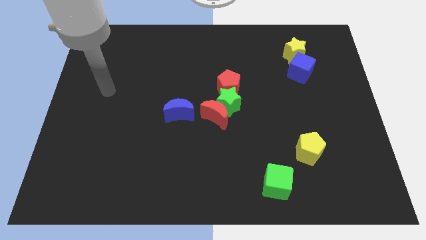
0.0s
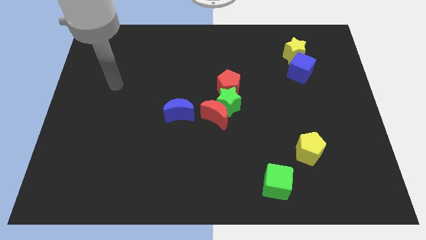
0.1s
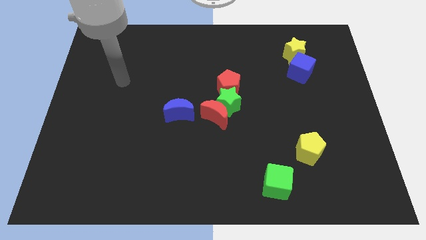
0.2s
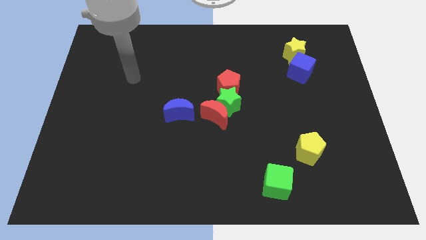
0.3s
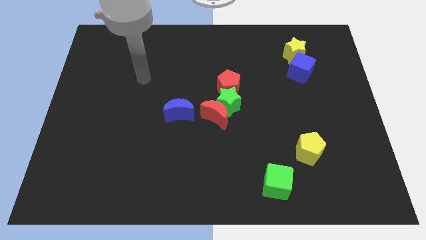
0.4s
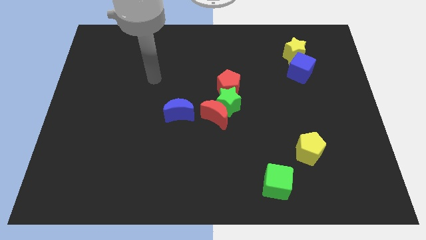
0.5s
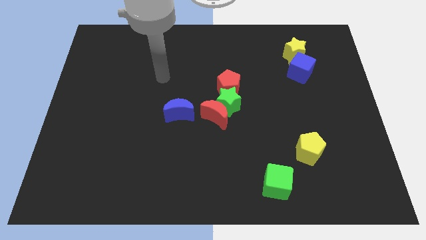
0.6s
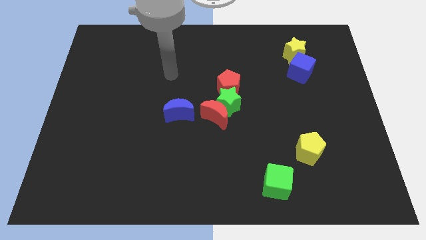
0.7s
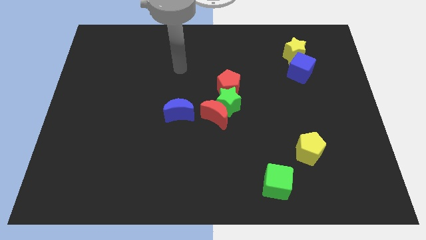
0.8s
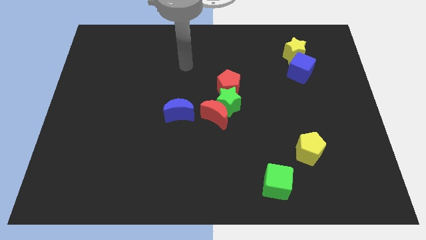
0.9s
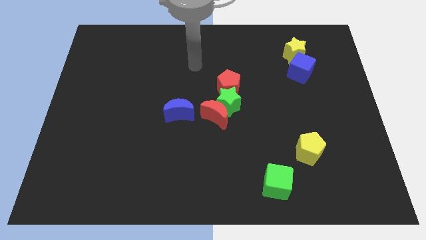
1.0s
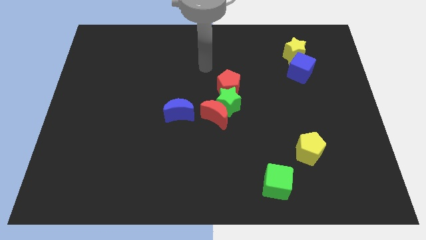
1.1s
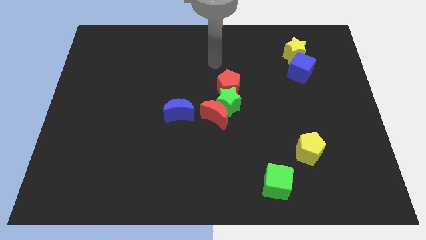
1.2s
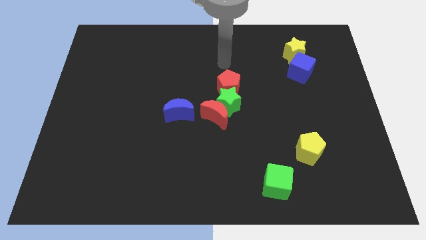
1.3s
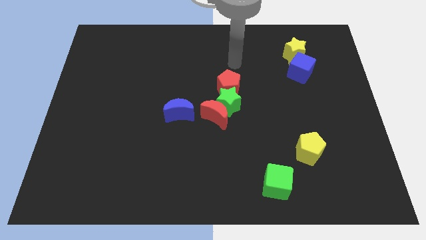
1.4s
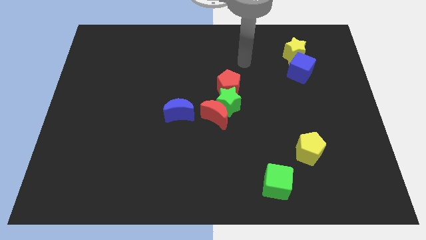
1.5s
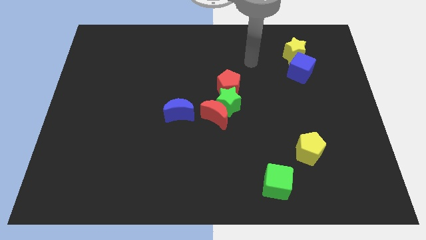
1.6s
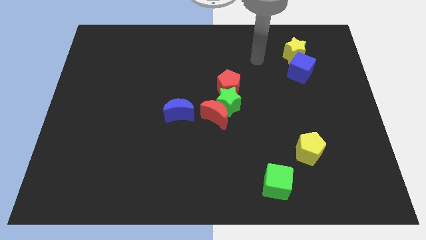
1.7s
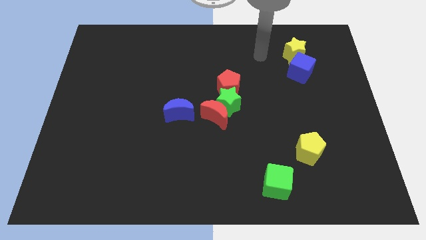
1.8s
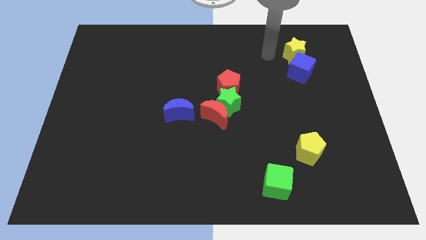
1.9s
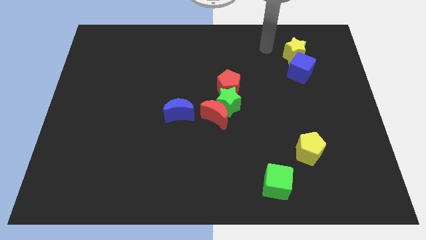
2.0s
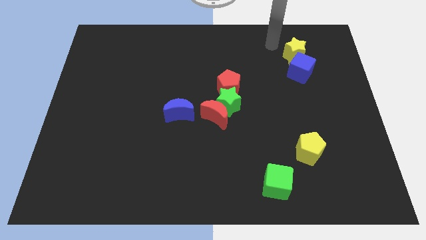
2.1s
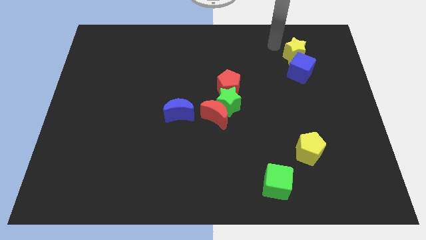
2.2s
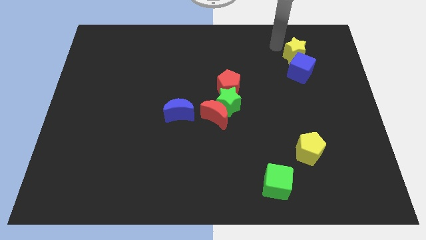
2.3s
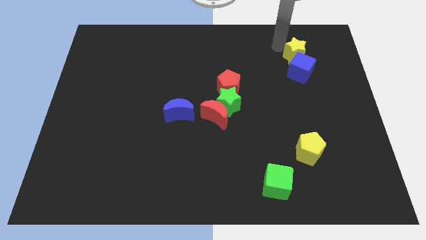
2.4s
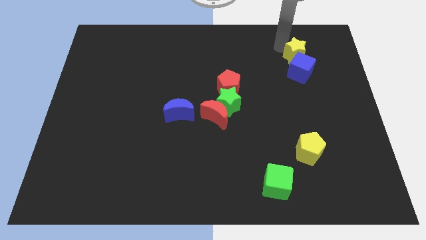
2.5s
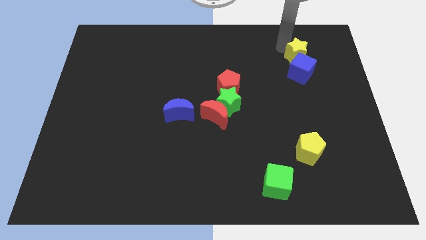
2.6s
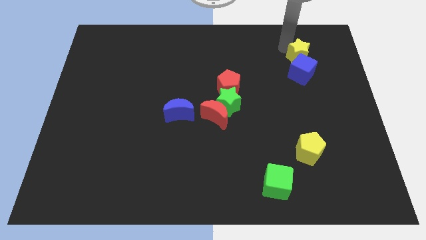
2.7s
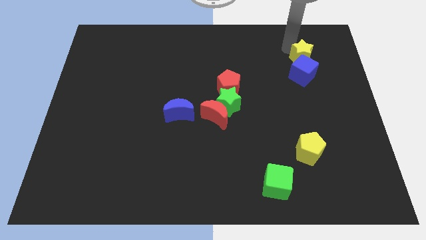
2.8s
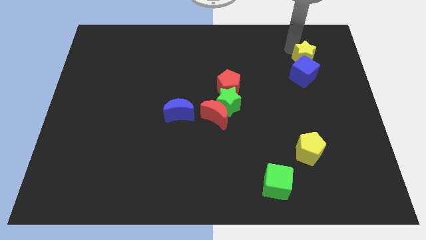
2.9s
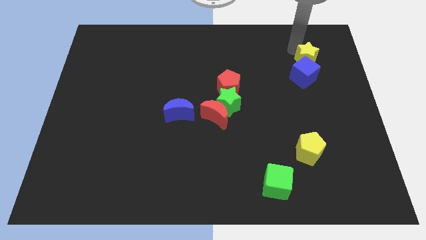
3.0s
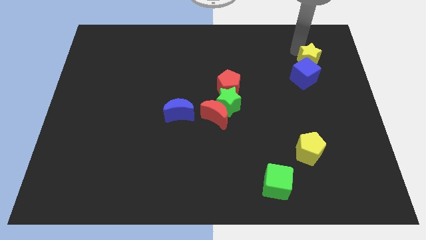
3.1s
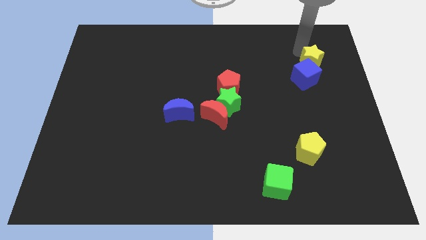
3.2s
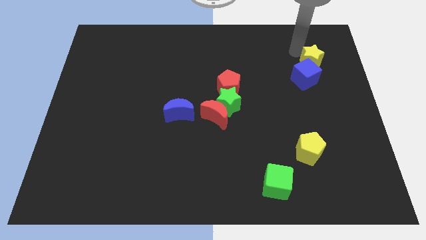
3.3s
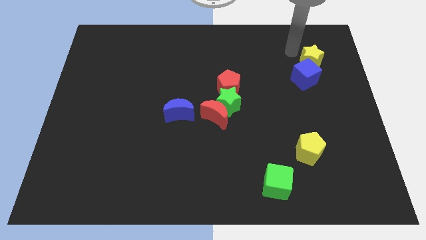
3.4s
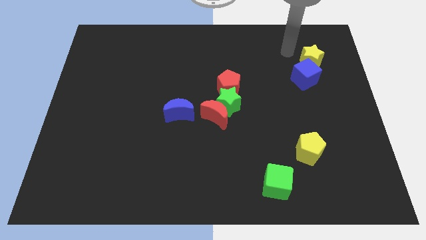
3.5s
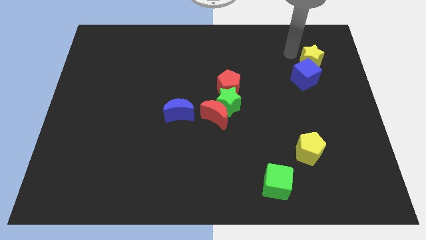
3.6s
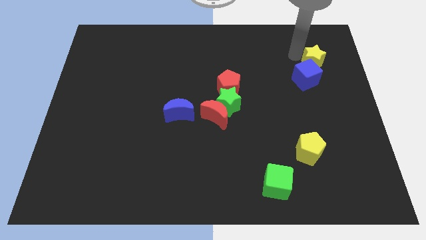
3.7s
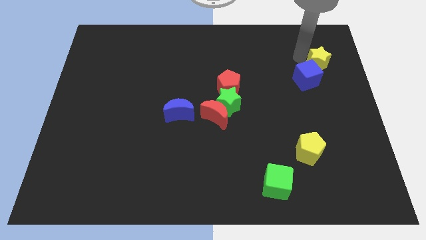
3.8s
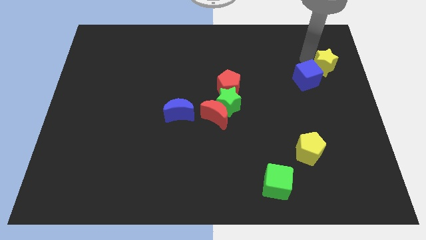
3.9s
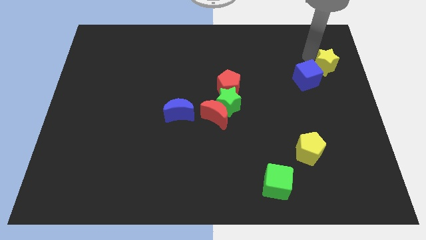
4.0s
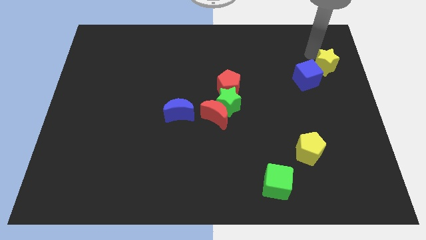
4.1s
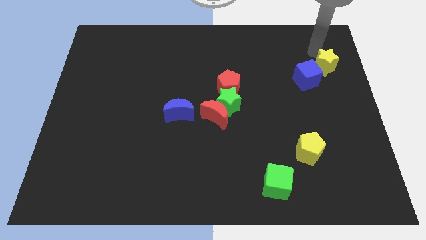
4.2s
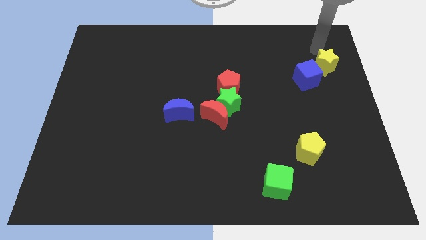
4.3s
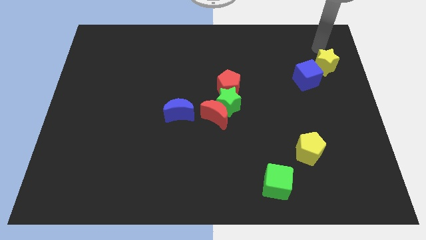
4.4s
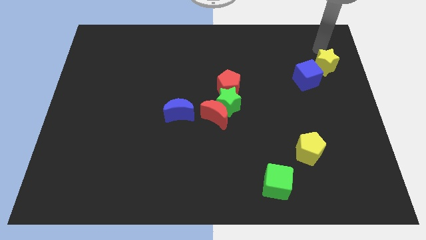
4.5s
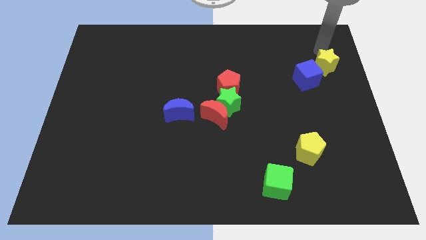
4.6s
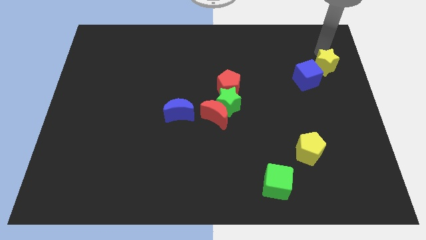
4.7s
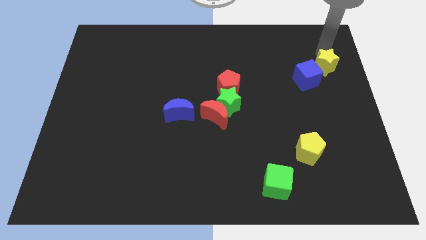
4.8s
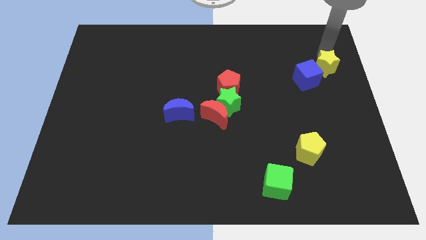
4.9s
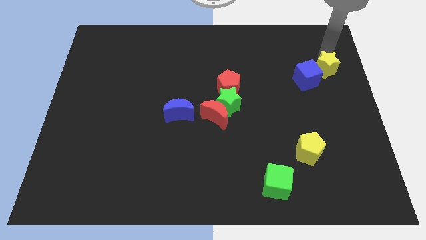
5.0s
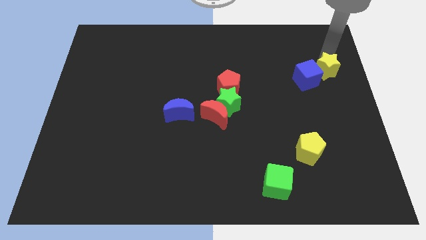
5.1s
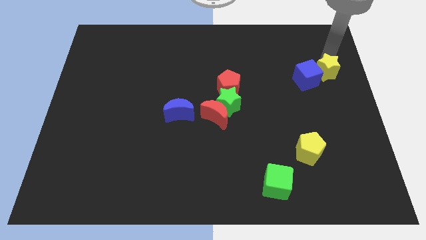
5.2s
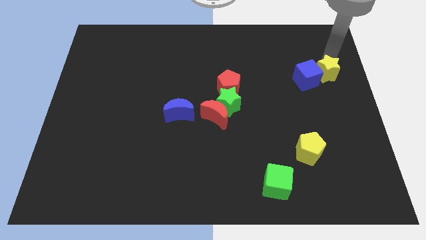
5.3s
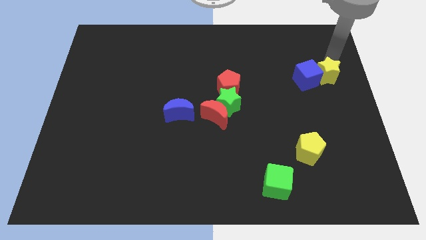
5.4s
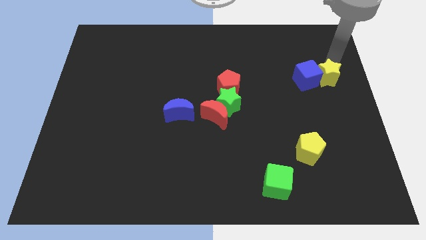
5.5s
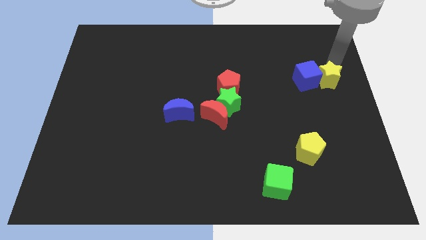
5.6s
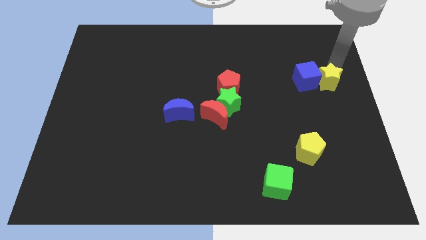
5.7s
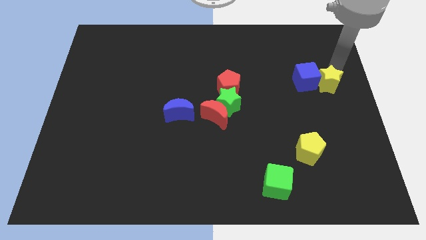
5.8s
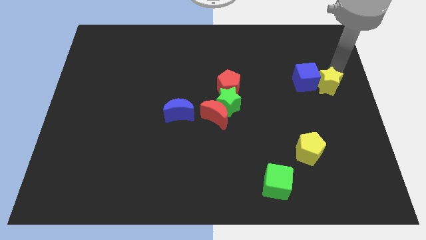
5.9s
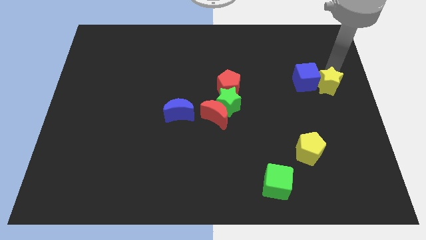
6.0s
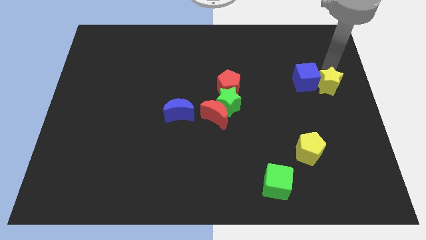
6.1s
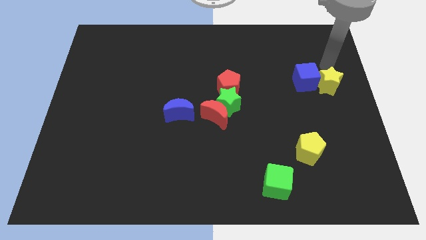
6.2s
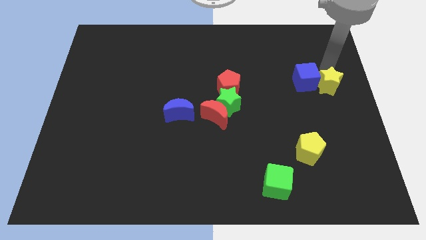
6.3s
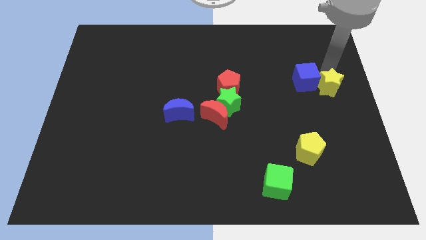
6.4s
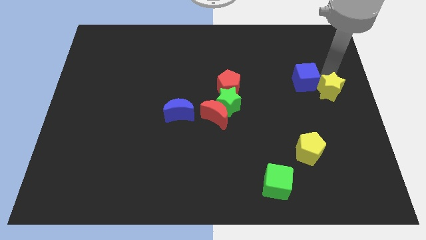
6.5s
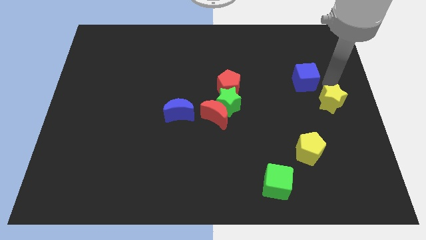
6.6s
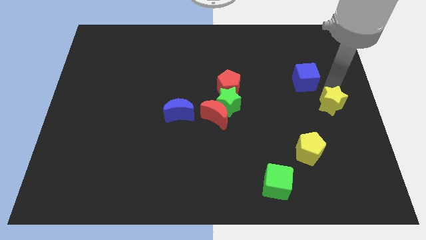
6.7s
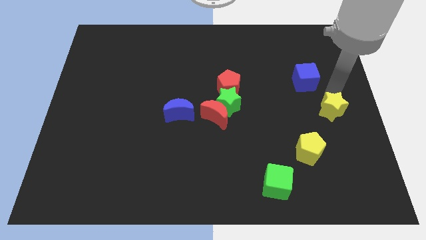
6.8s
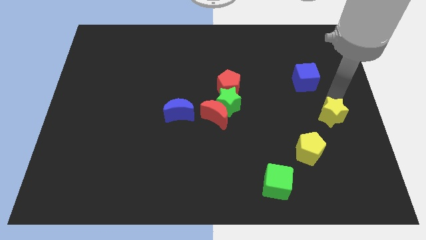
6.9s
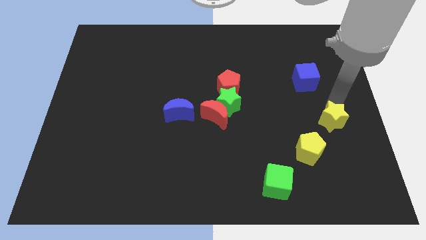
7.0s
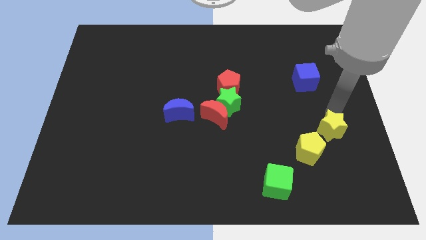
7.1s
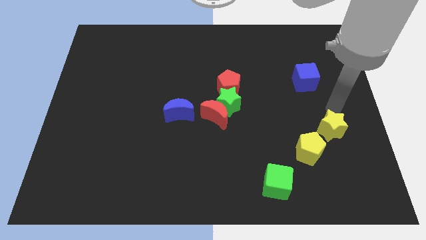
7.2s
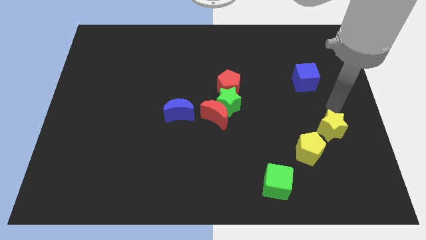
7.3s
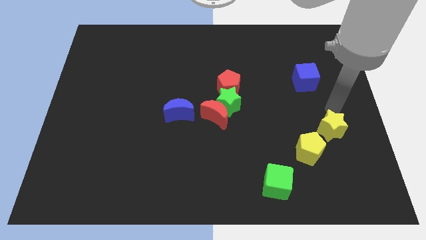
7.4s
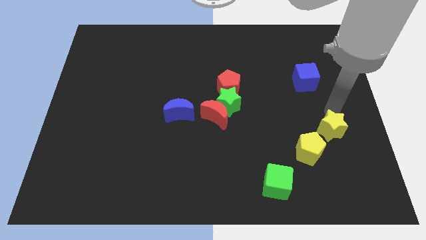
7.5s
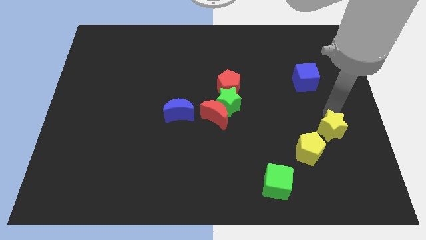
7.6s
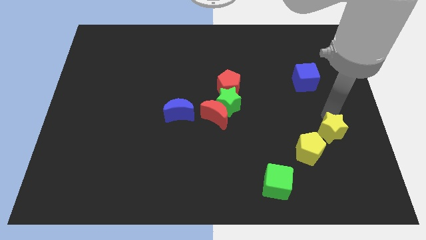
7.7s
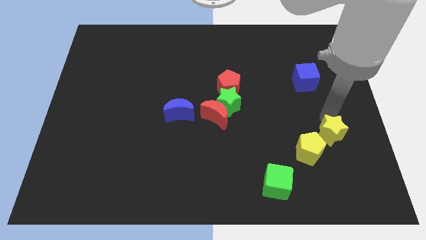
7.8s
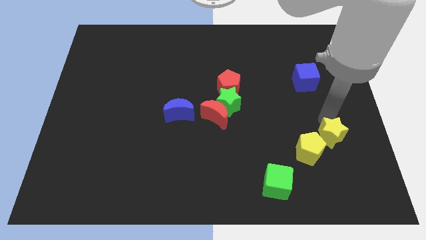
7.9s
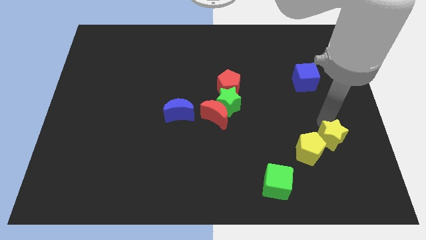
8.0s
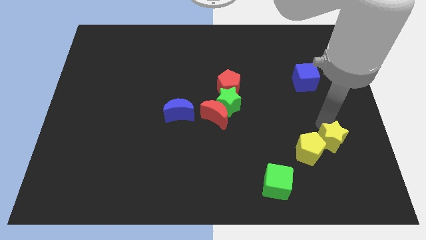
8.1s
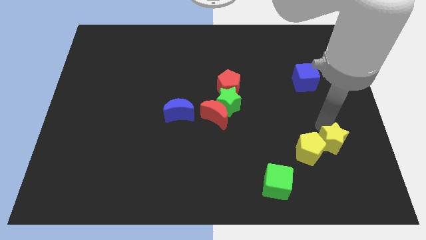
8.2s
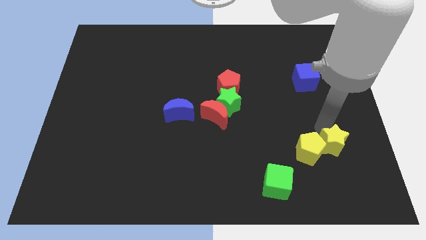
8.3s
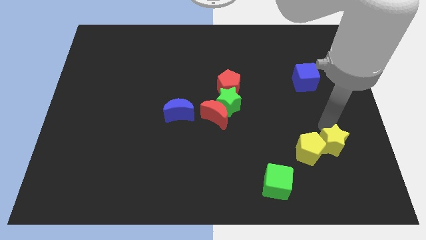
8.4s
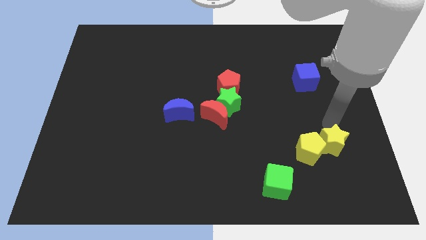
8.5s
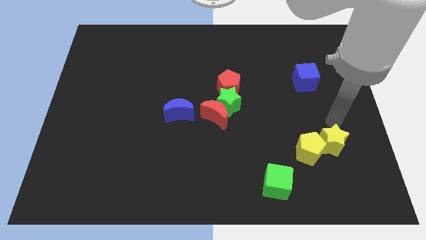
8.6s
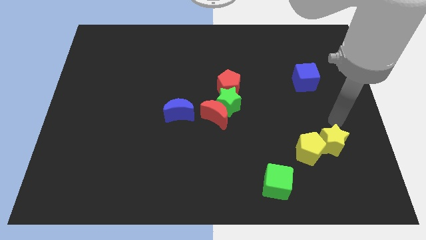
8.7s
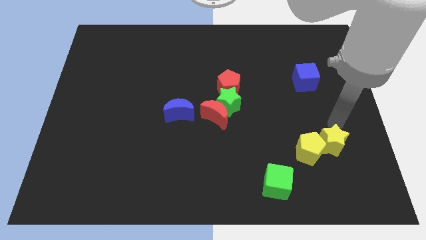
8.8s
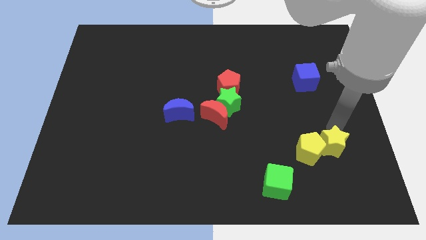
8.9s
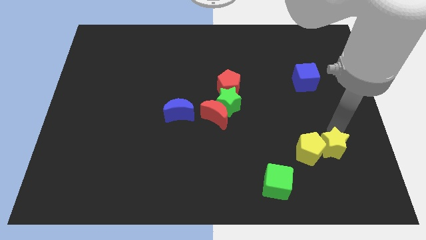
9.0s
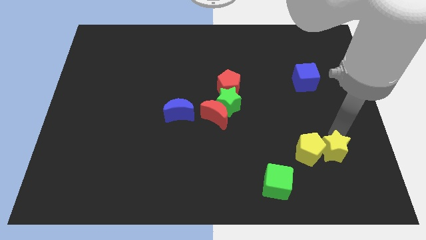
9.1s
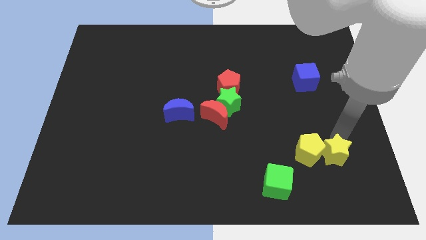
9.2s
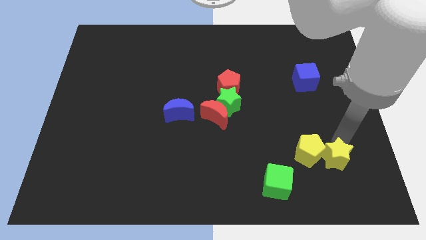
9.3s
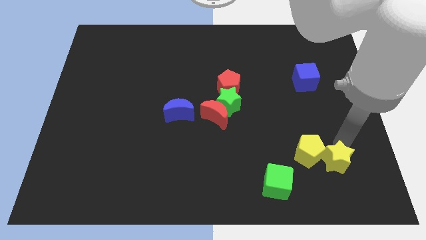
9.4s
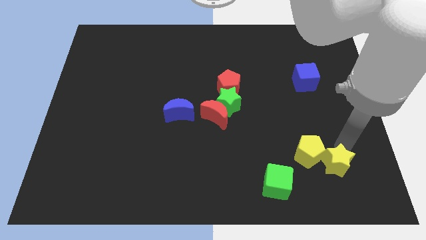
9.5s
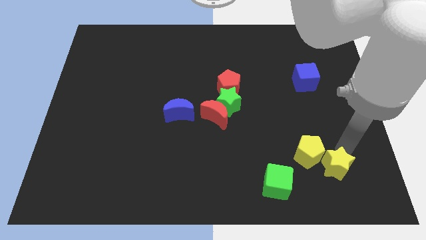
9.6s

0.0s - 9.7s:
move the yellow star right of the green cube
